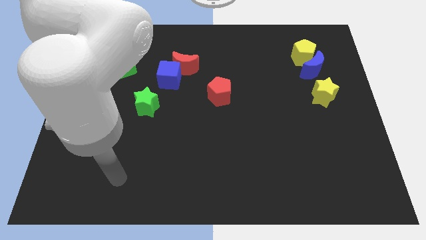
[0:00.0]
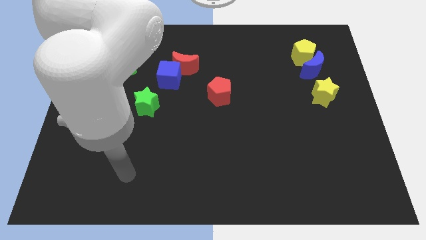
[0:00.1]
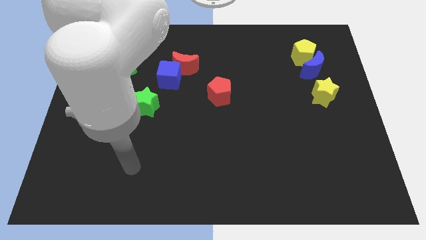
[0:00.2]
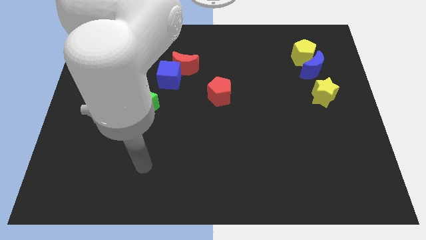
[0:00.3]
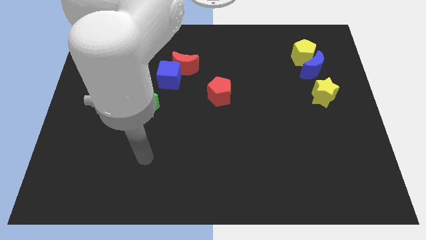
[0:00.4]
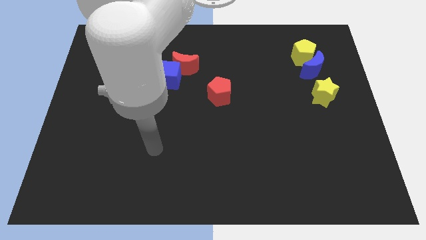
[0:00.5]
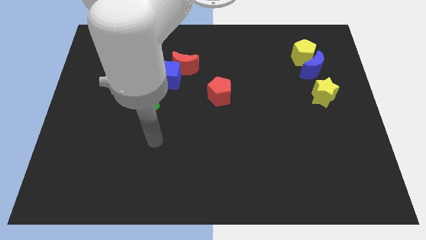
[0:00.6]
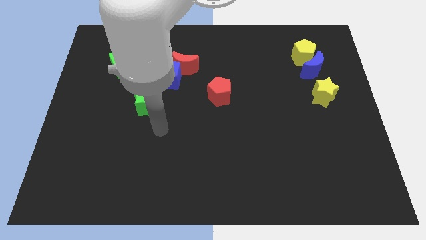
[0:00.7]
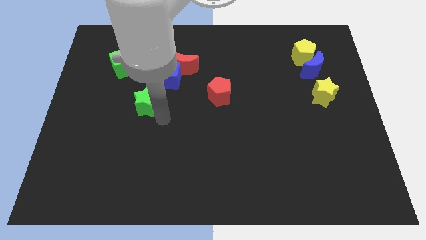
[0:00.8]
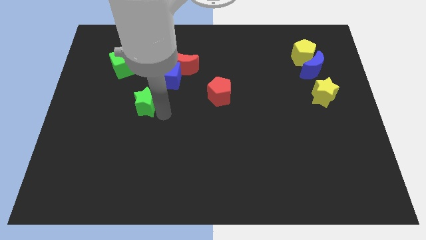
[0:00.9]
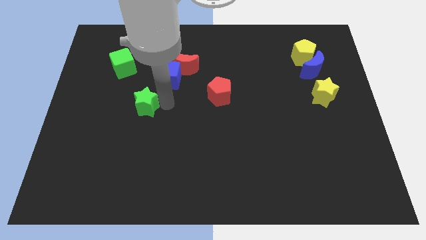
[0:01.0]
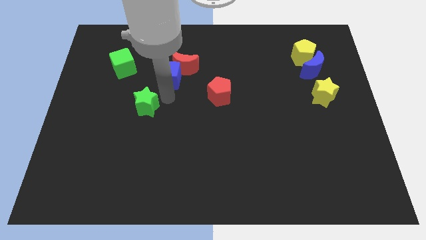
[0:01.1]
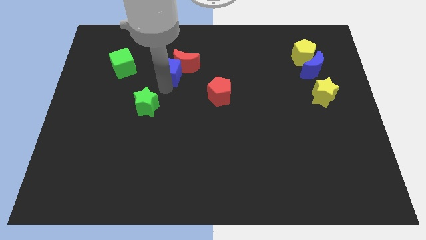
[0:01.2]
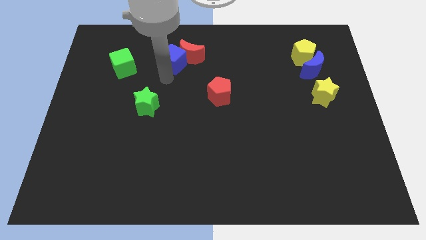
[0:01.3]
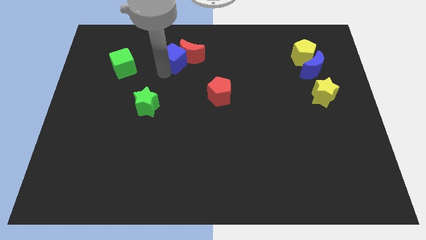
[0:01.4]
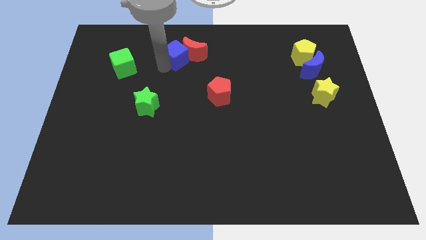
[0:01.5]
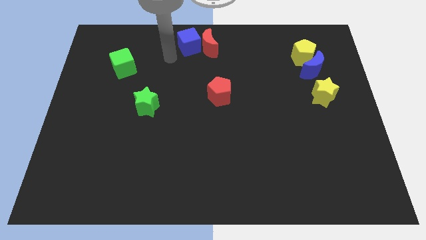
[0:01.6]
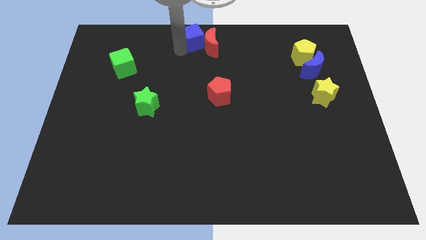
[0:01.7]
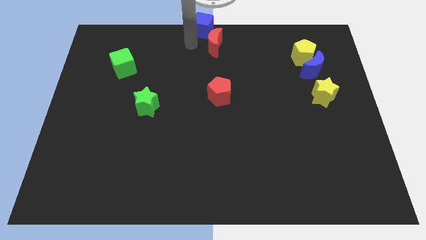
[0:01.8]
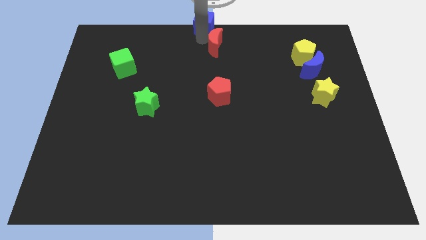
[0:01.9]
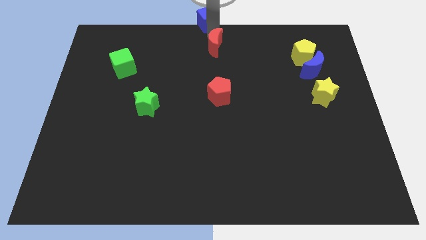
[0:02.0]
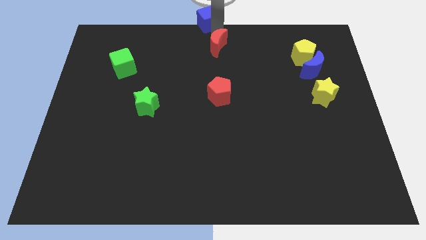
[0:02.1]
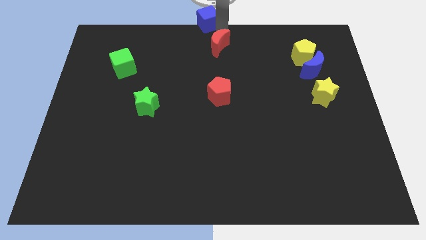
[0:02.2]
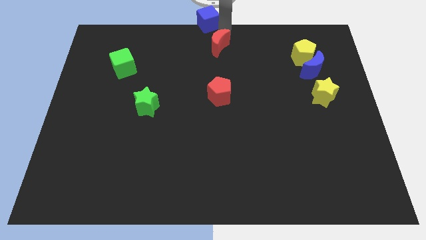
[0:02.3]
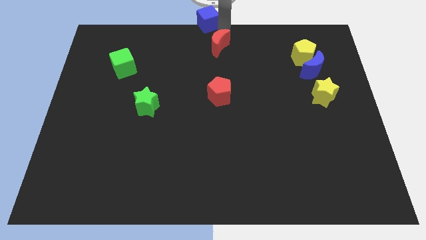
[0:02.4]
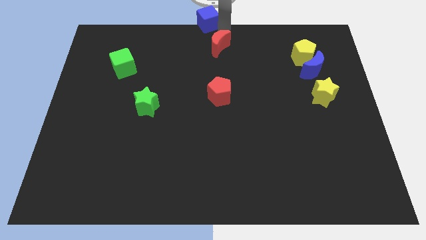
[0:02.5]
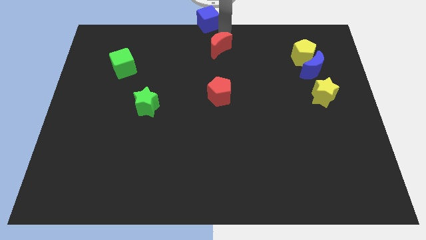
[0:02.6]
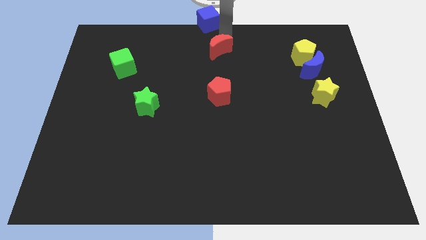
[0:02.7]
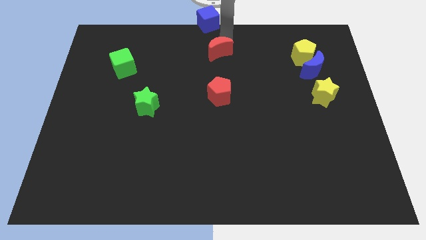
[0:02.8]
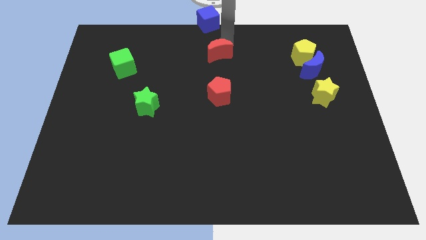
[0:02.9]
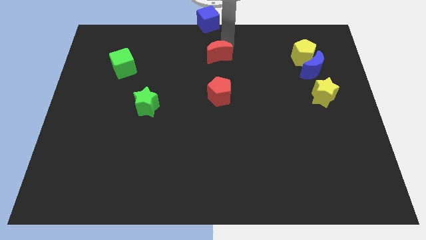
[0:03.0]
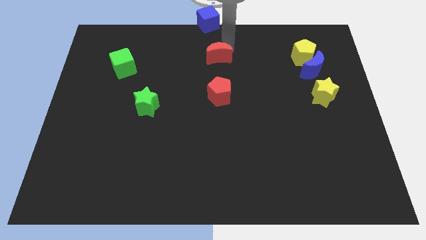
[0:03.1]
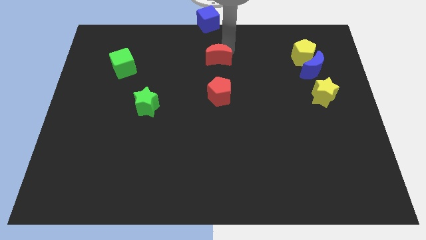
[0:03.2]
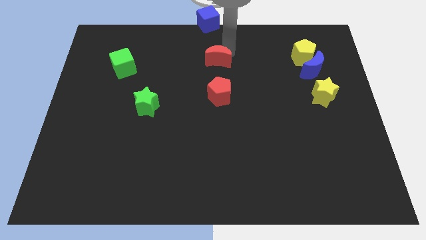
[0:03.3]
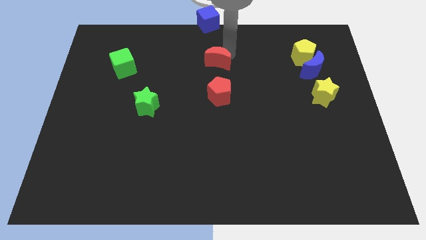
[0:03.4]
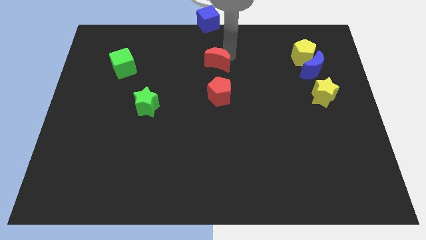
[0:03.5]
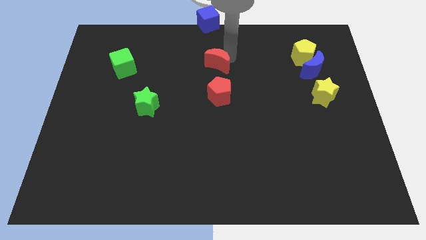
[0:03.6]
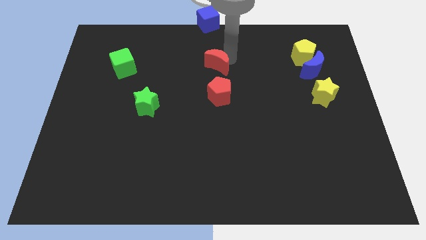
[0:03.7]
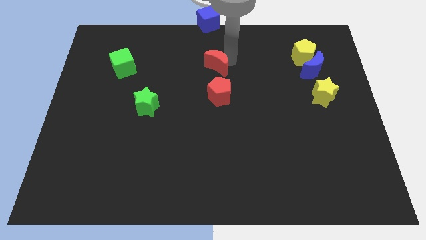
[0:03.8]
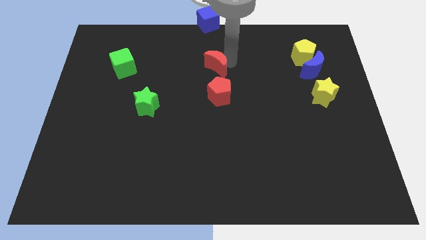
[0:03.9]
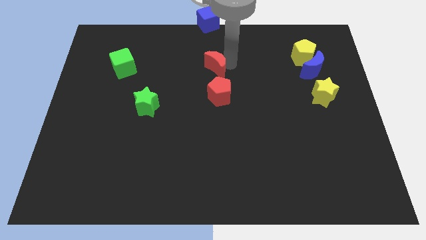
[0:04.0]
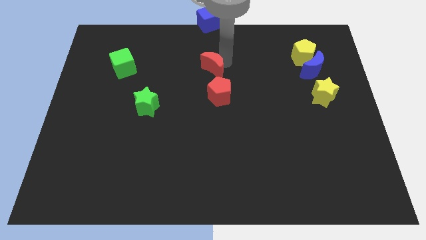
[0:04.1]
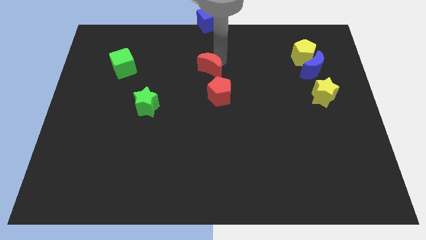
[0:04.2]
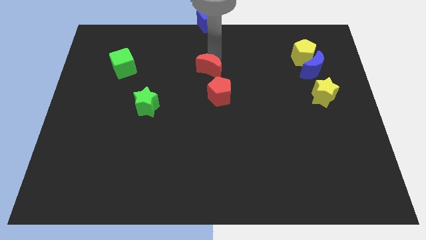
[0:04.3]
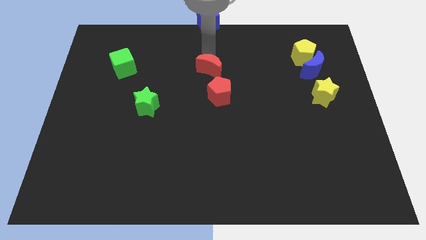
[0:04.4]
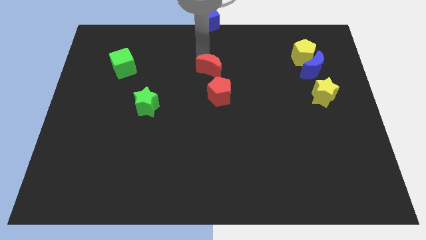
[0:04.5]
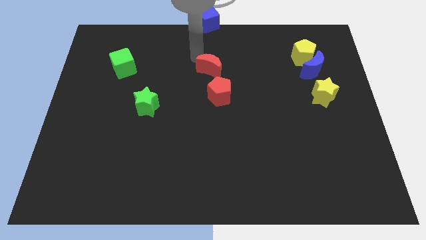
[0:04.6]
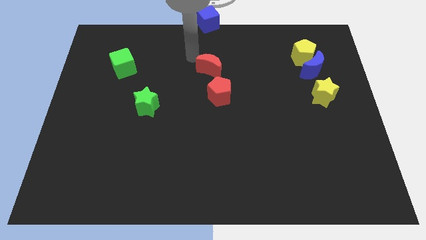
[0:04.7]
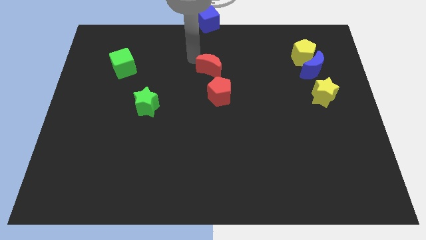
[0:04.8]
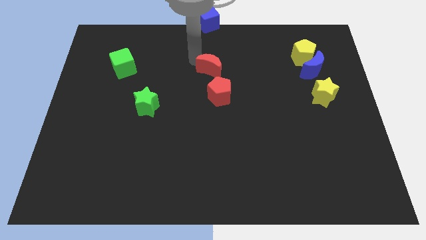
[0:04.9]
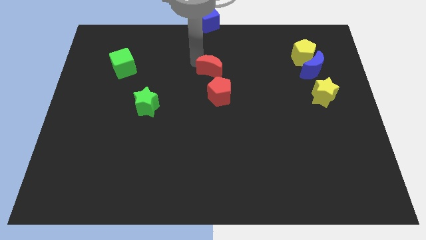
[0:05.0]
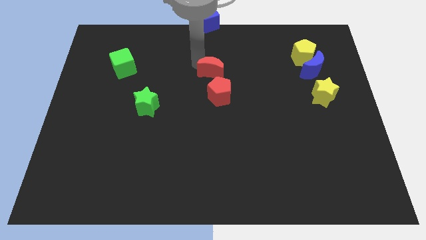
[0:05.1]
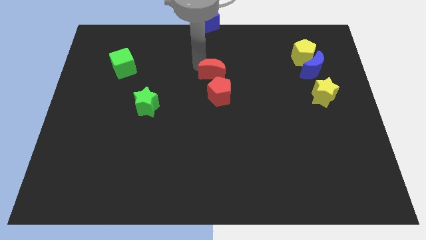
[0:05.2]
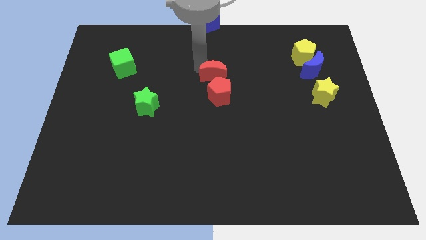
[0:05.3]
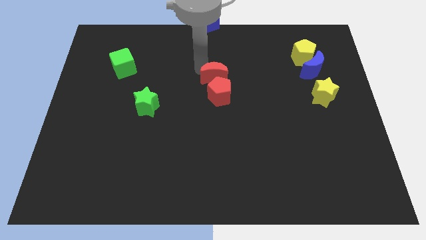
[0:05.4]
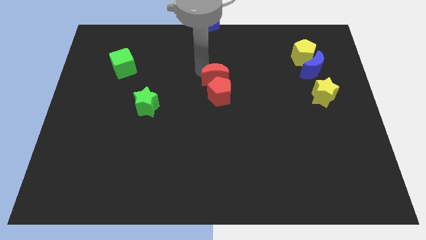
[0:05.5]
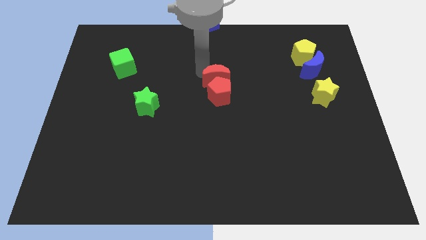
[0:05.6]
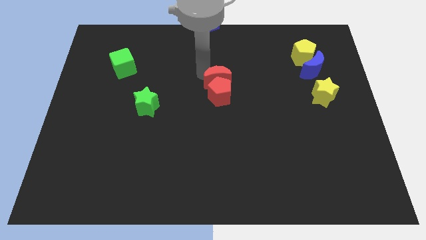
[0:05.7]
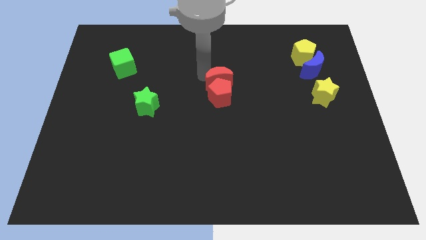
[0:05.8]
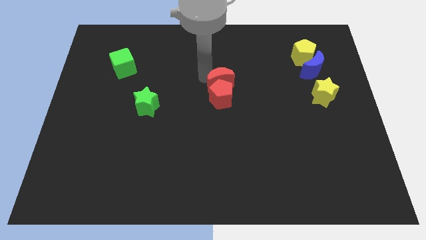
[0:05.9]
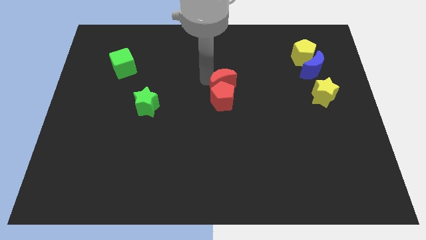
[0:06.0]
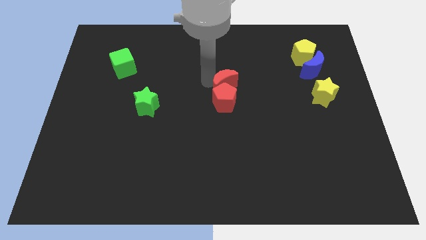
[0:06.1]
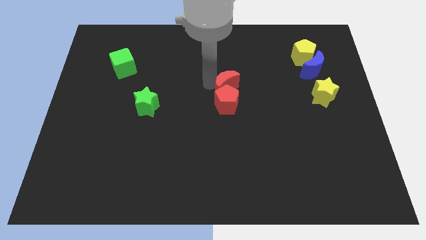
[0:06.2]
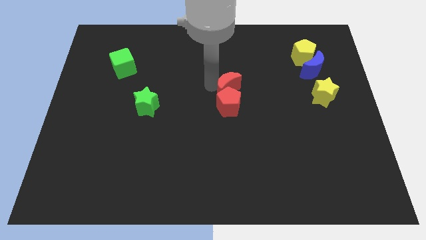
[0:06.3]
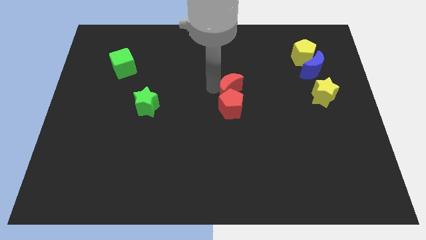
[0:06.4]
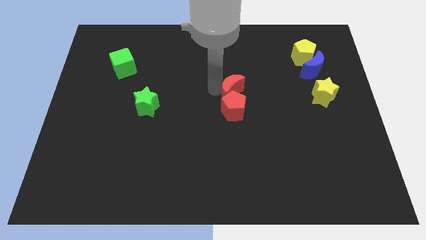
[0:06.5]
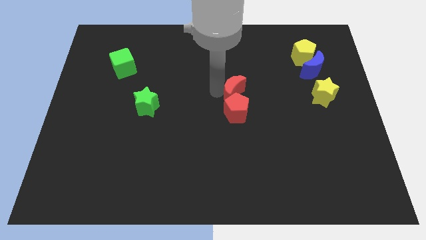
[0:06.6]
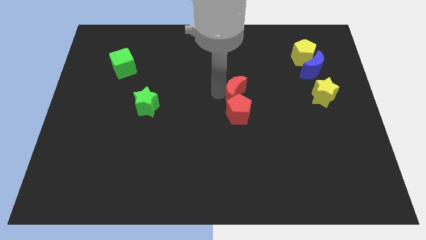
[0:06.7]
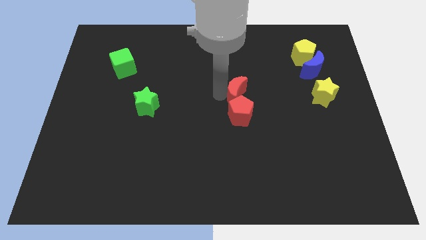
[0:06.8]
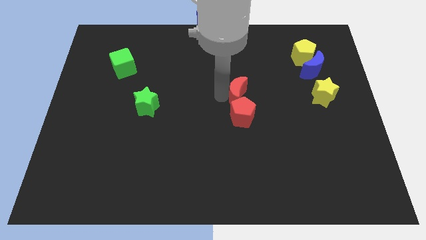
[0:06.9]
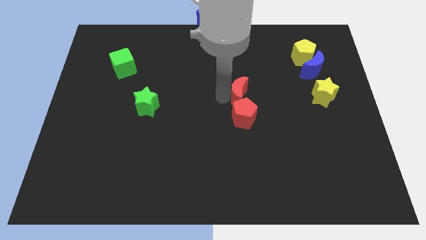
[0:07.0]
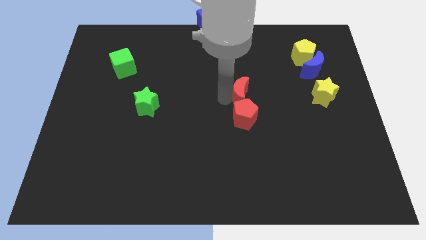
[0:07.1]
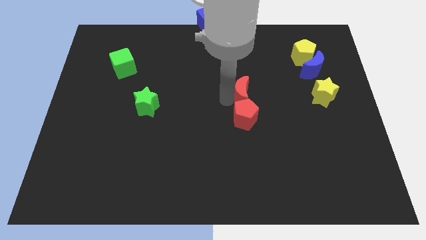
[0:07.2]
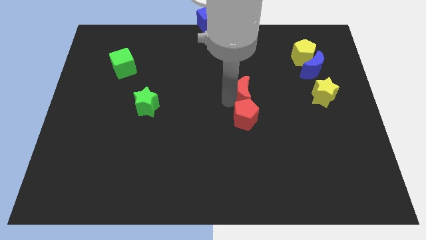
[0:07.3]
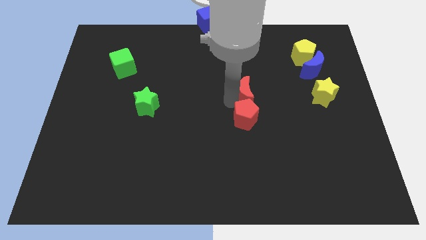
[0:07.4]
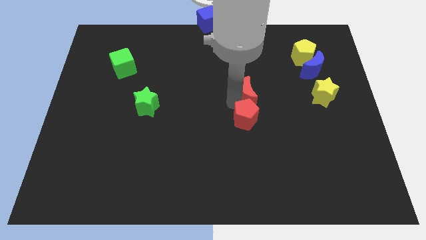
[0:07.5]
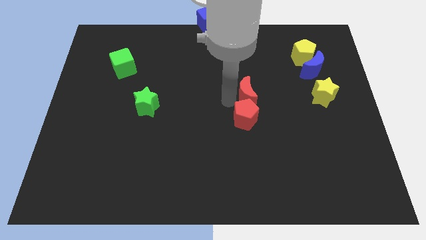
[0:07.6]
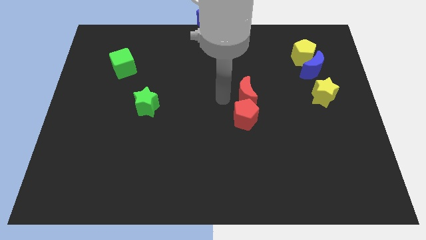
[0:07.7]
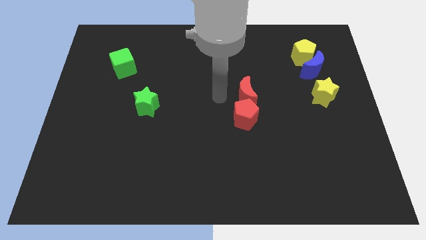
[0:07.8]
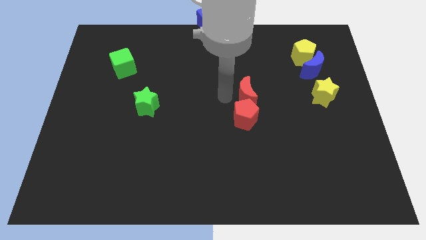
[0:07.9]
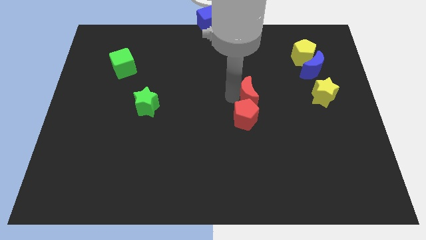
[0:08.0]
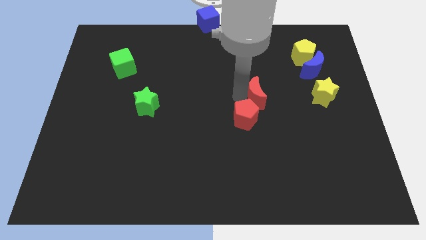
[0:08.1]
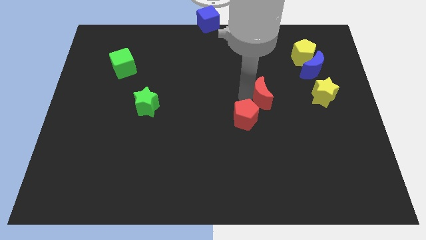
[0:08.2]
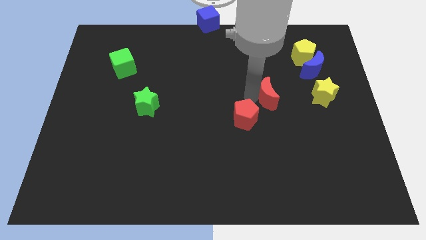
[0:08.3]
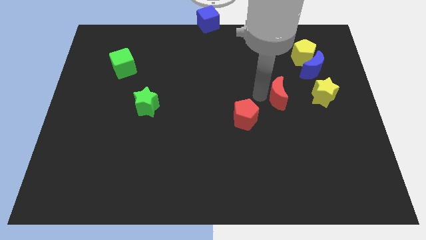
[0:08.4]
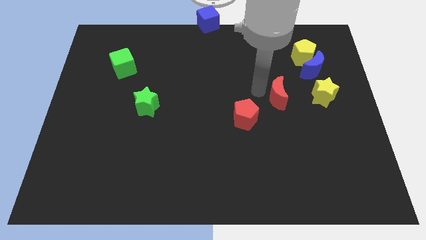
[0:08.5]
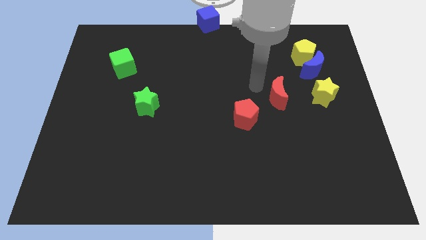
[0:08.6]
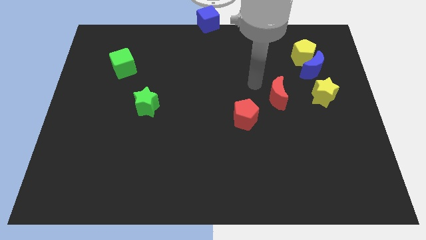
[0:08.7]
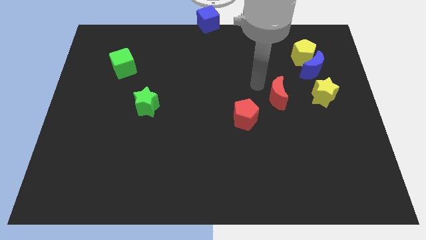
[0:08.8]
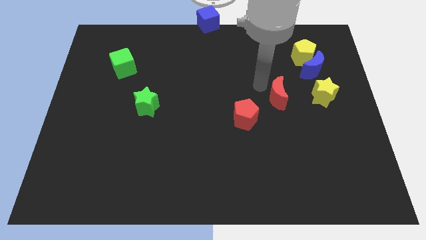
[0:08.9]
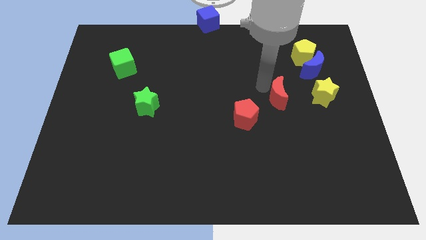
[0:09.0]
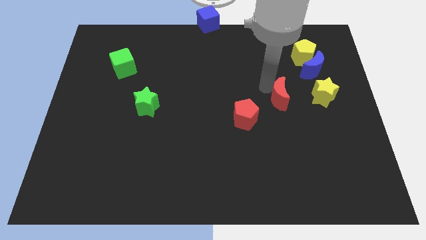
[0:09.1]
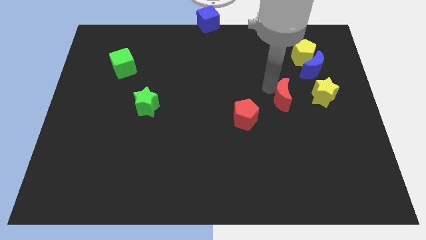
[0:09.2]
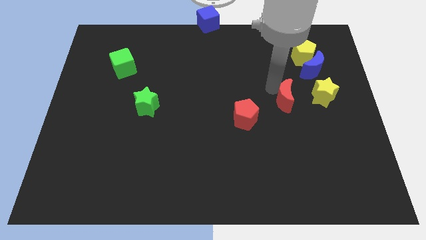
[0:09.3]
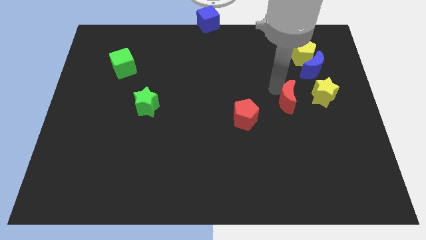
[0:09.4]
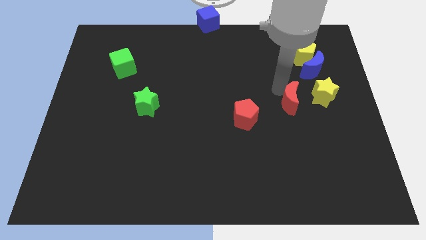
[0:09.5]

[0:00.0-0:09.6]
push the red moon diagonally down and to the left of the yellow star
